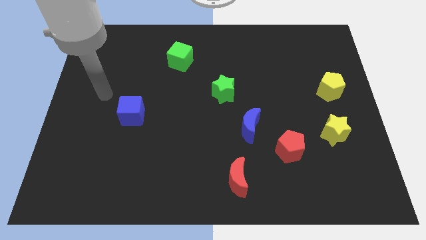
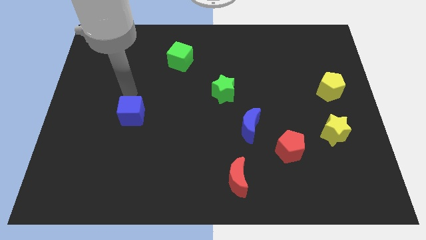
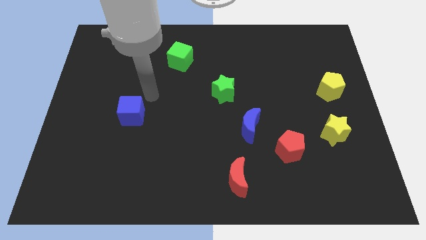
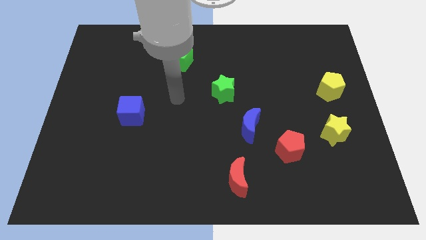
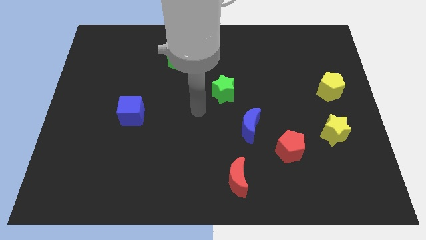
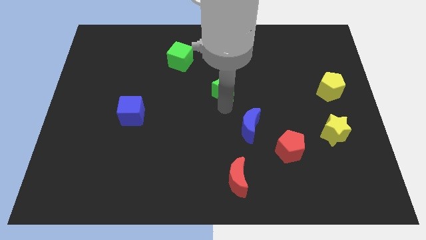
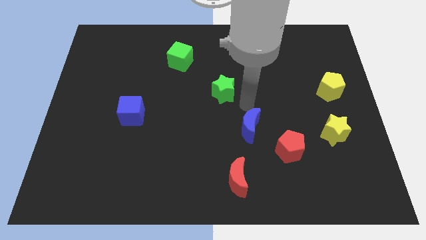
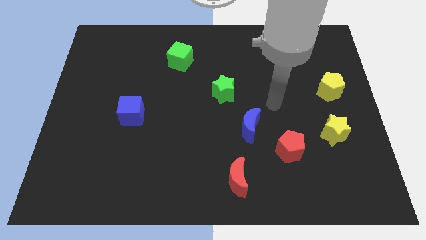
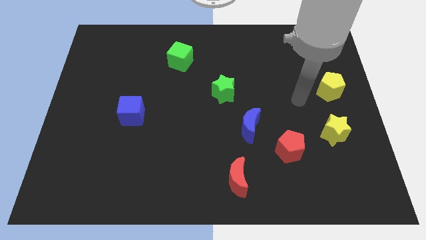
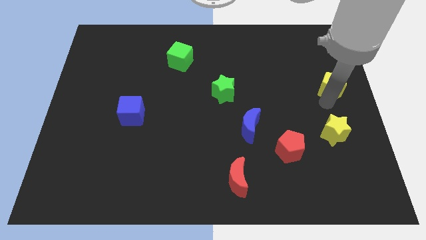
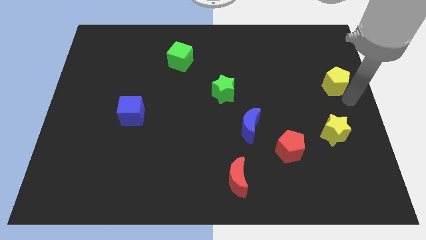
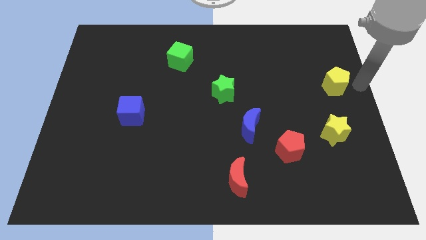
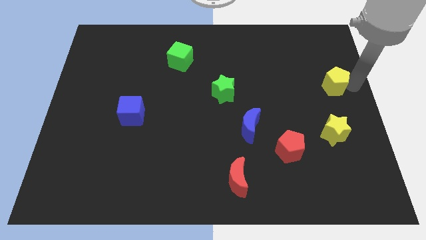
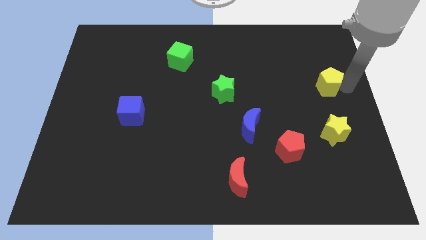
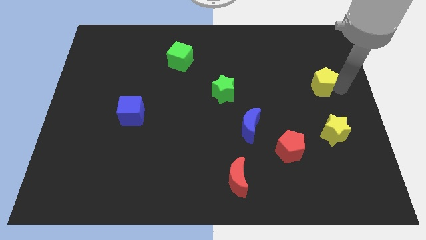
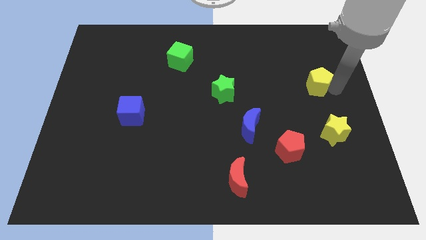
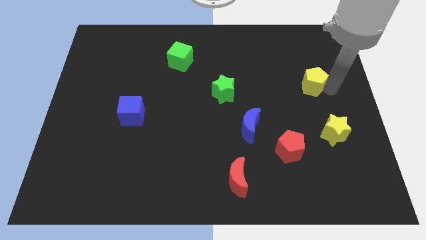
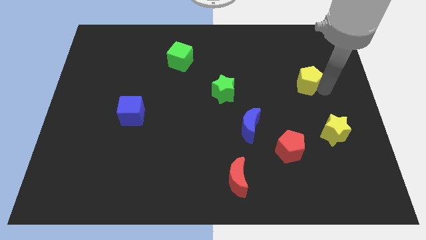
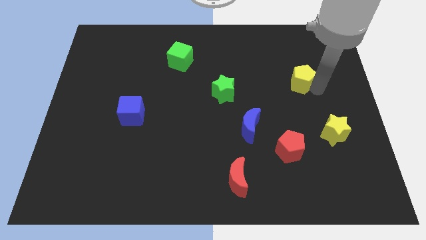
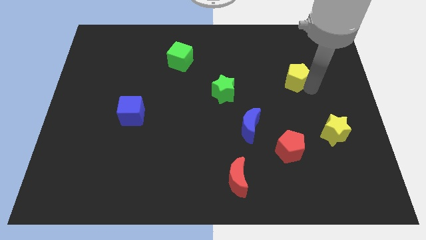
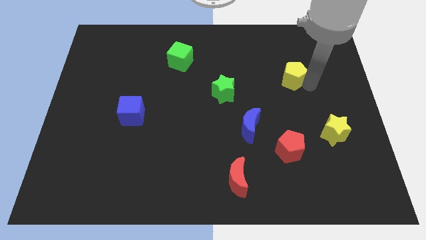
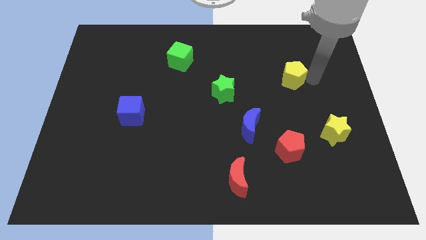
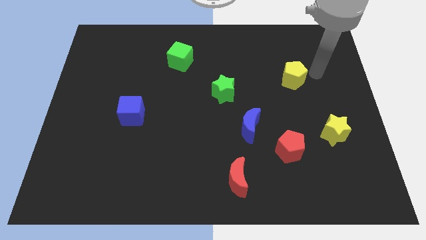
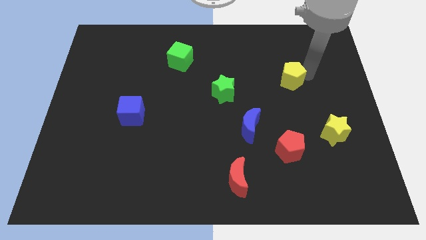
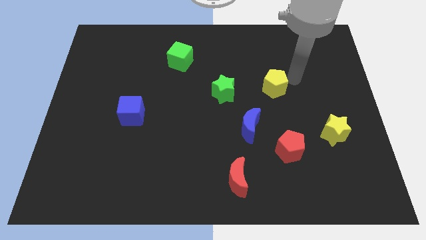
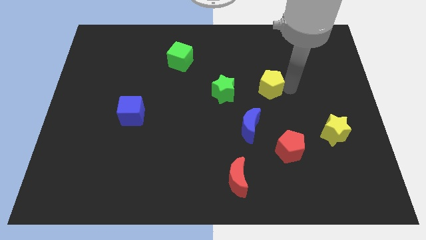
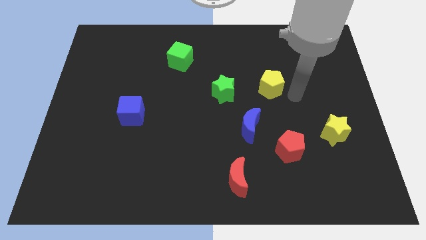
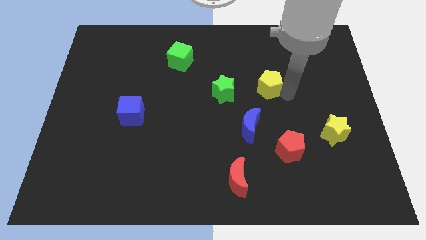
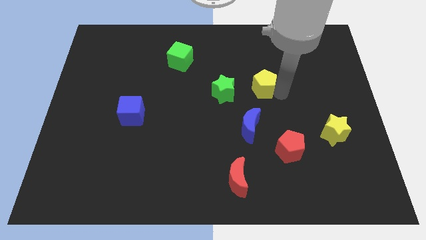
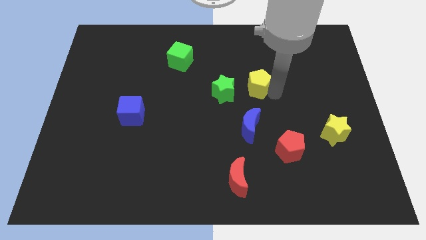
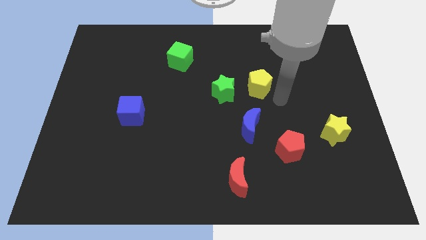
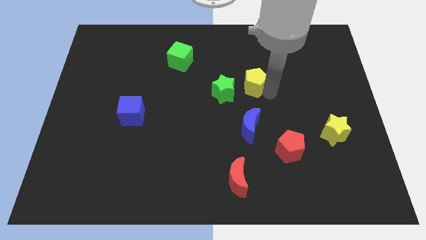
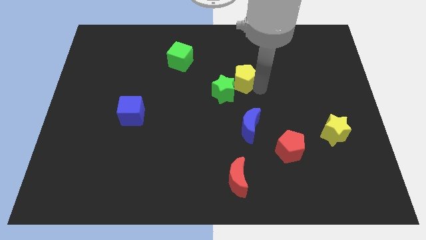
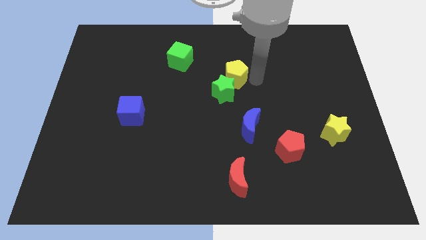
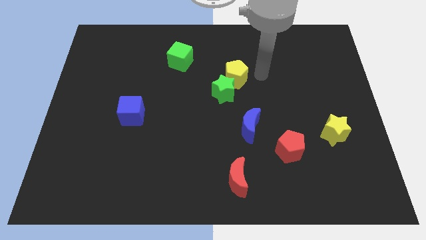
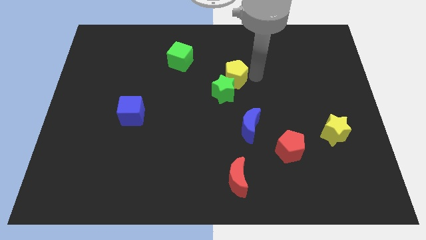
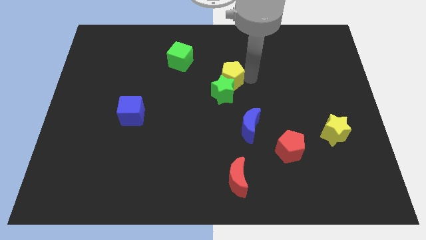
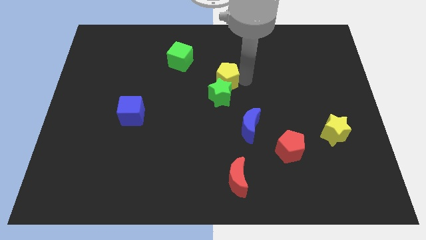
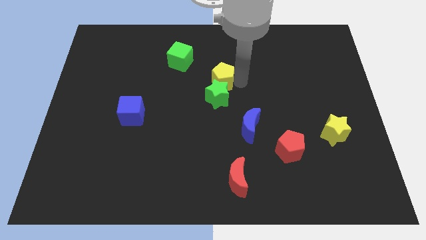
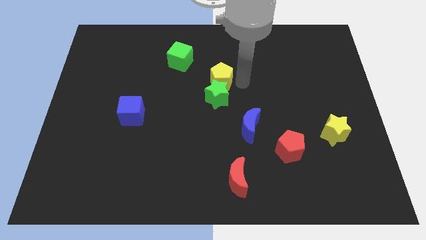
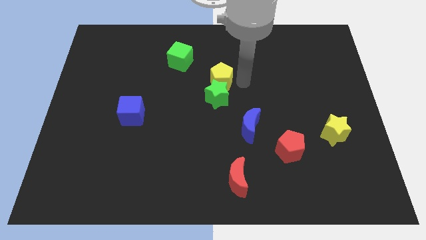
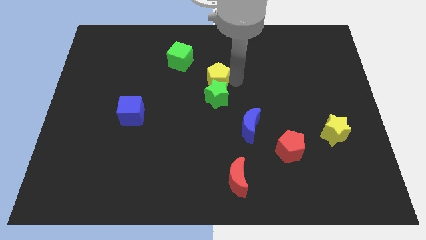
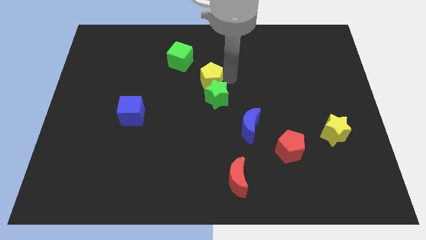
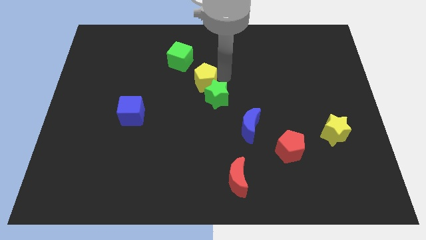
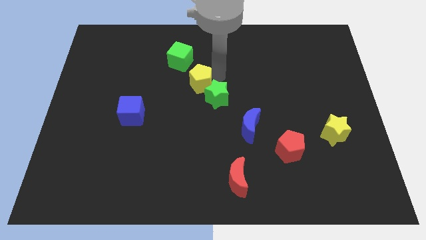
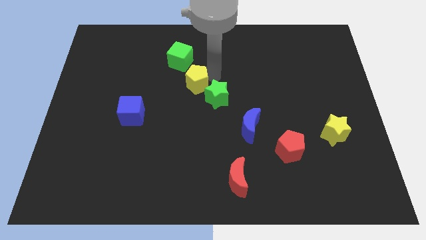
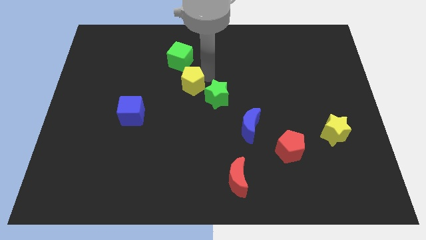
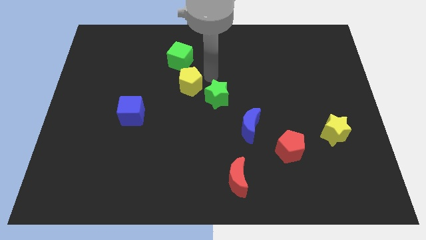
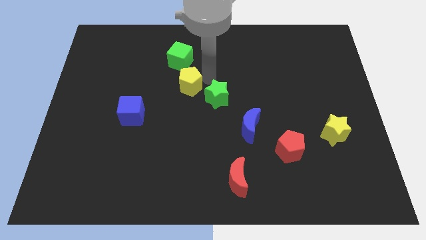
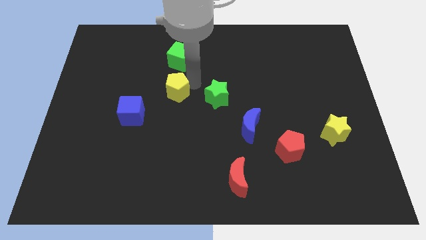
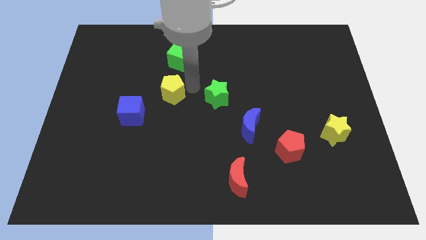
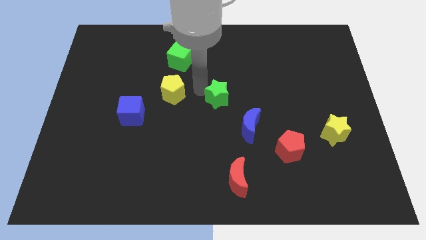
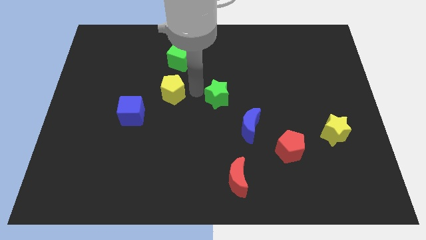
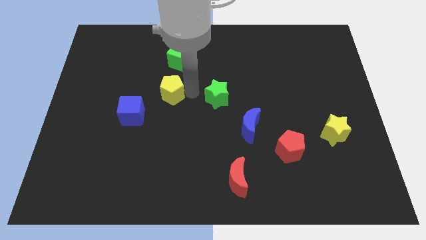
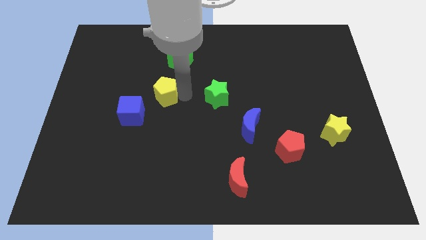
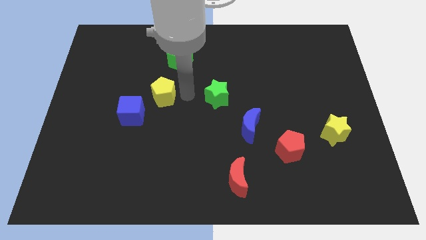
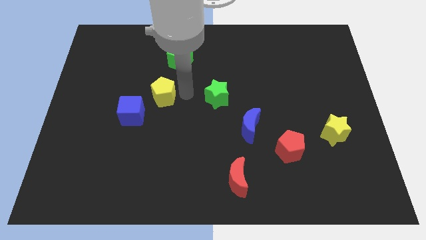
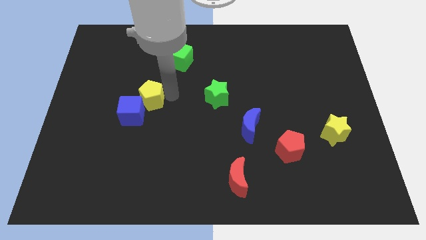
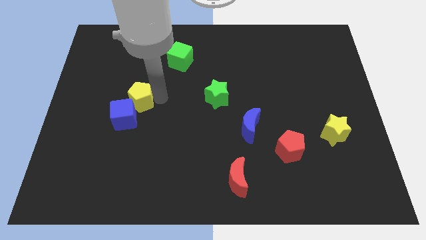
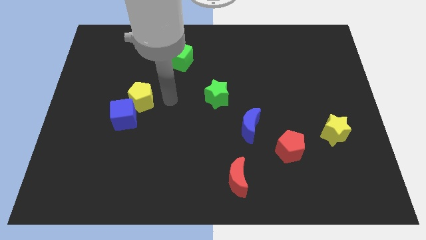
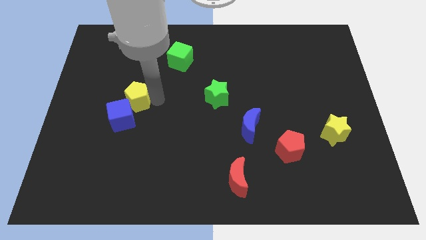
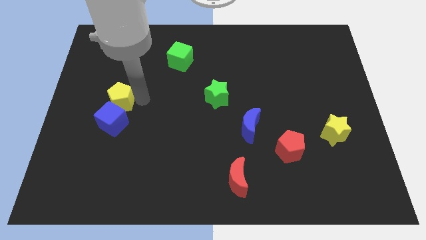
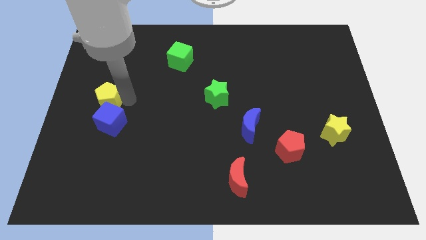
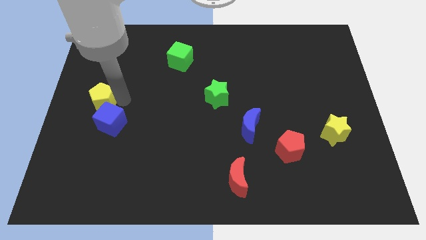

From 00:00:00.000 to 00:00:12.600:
put the yellow pentagon to the left side of the board
